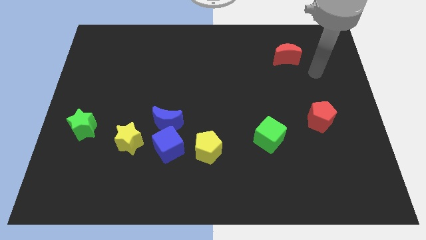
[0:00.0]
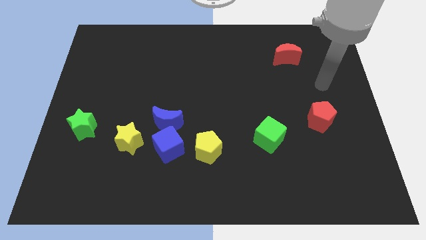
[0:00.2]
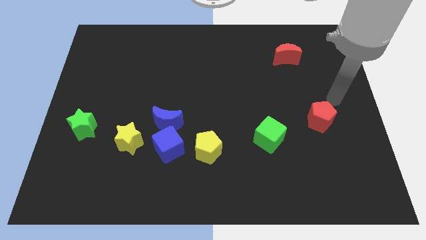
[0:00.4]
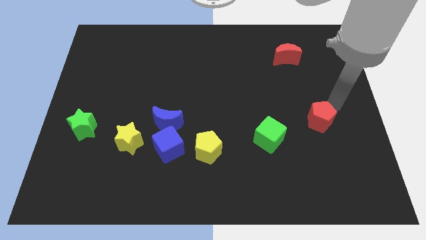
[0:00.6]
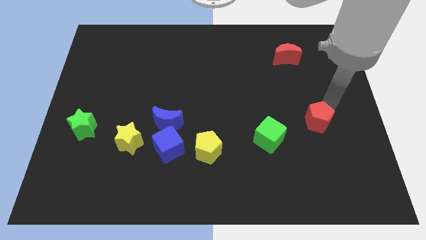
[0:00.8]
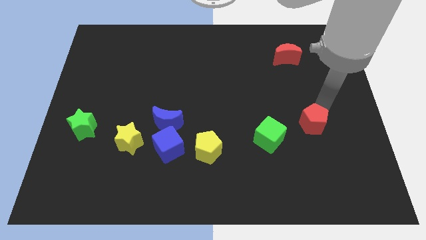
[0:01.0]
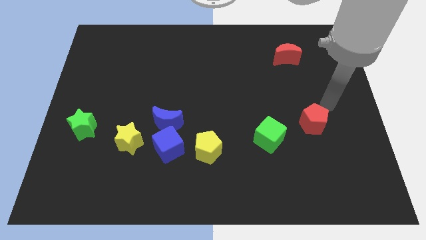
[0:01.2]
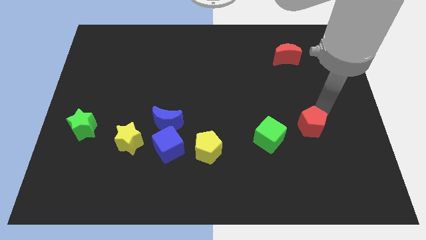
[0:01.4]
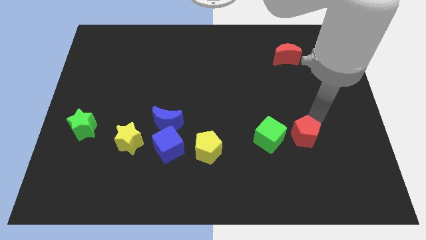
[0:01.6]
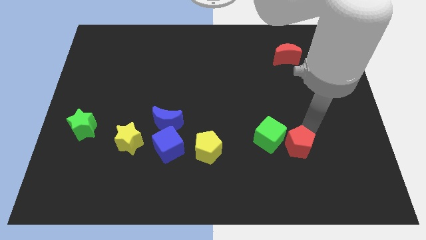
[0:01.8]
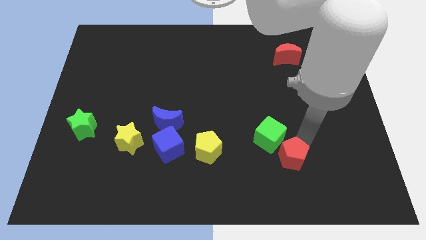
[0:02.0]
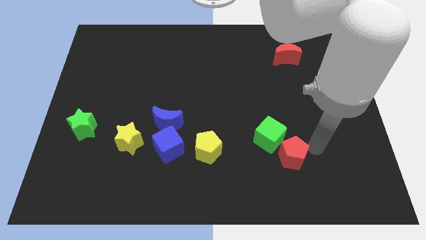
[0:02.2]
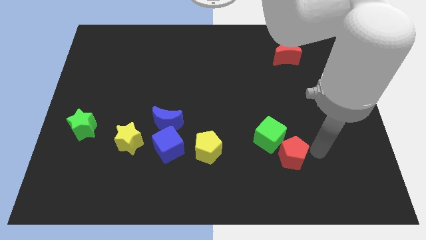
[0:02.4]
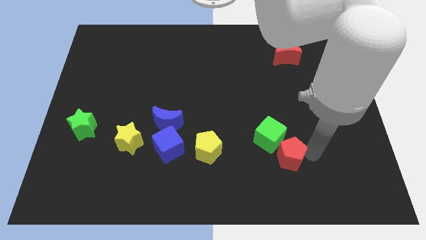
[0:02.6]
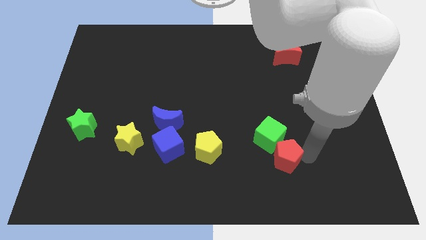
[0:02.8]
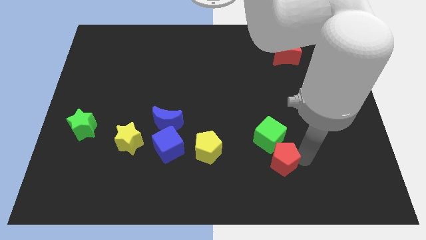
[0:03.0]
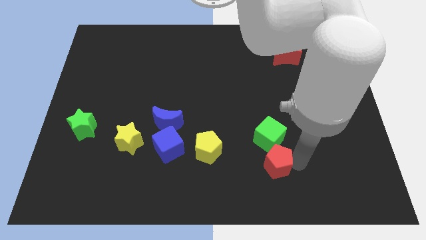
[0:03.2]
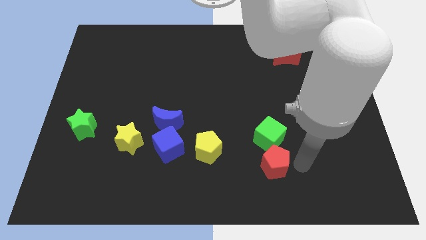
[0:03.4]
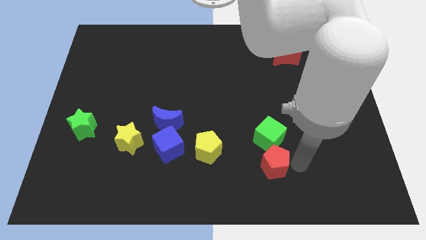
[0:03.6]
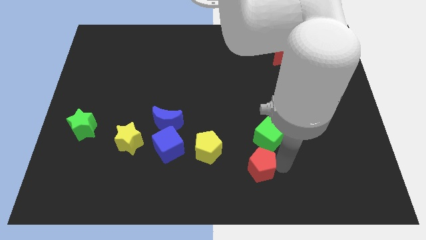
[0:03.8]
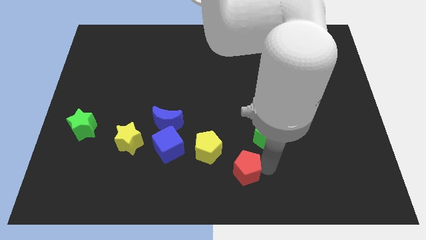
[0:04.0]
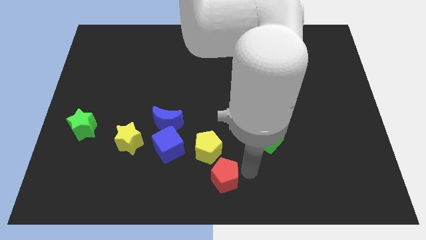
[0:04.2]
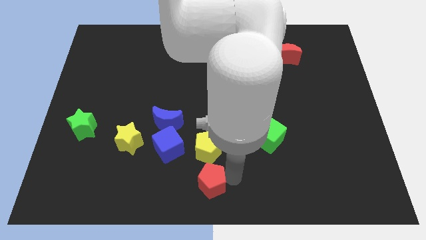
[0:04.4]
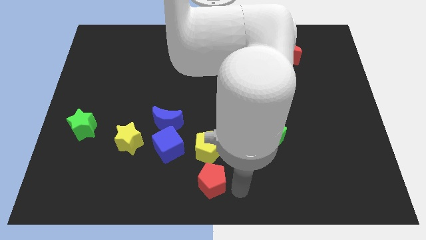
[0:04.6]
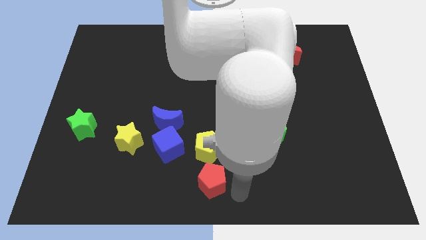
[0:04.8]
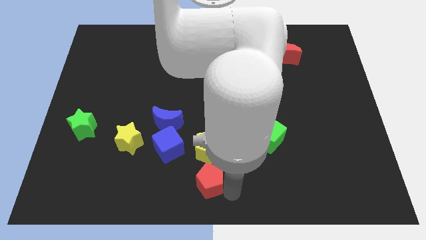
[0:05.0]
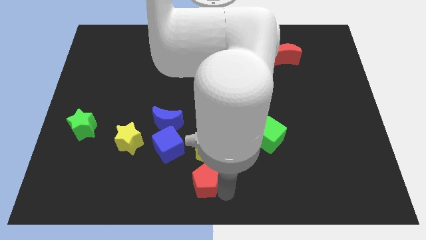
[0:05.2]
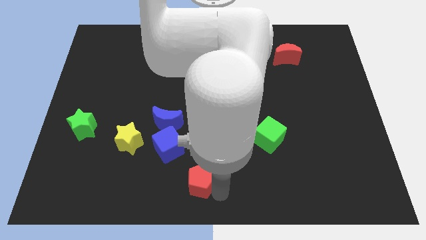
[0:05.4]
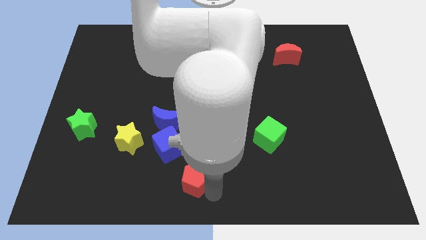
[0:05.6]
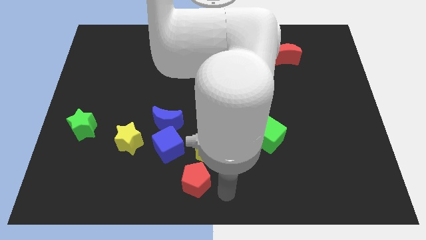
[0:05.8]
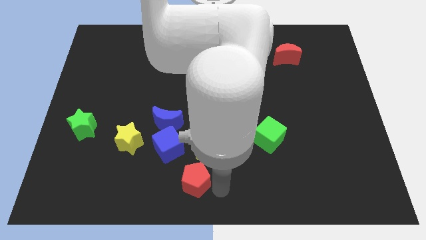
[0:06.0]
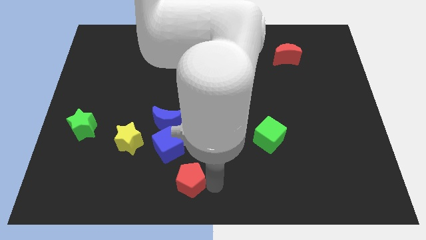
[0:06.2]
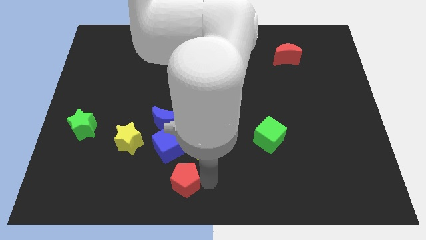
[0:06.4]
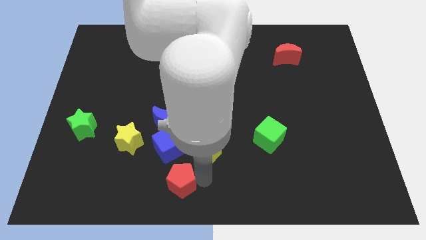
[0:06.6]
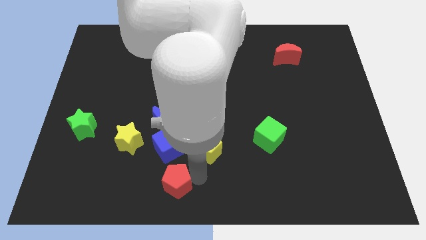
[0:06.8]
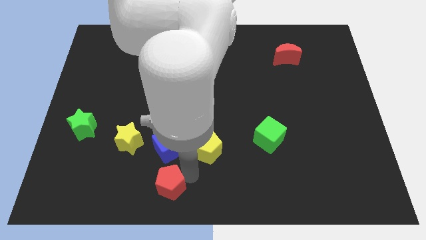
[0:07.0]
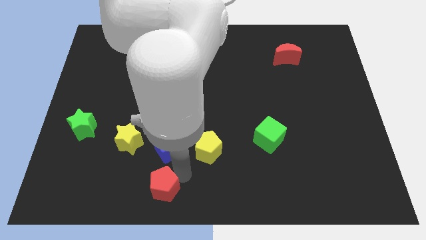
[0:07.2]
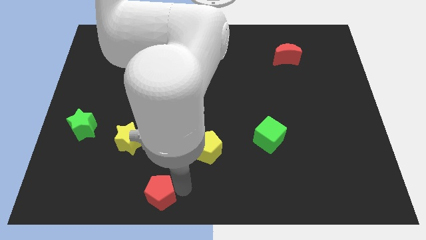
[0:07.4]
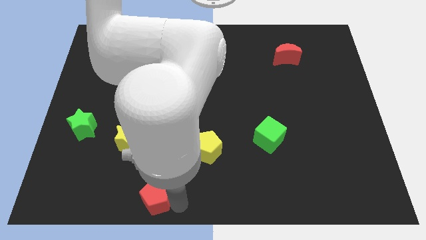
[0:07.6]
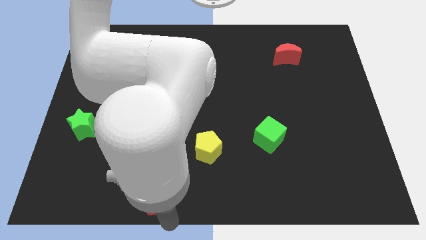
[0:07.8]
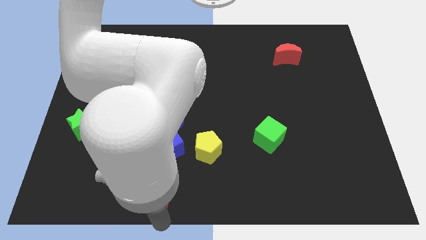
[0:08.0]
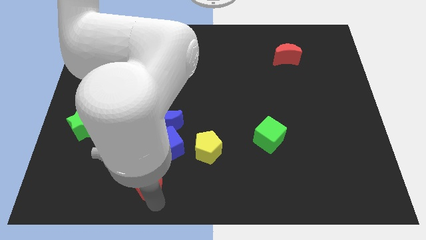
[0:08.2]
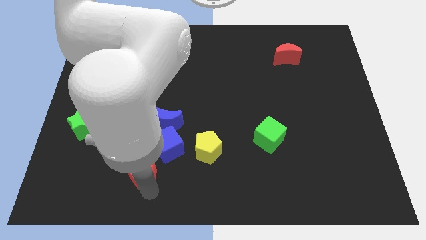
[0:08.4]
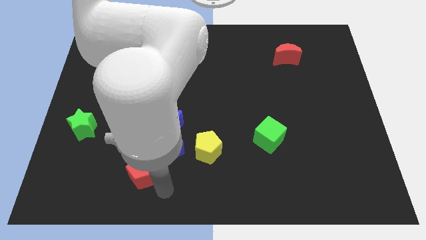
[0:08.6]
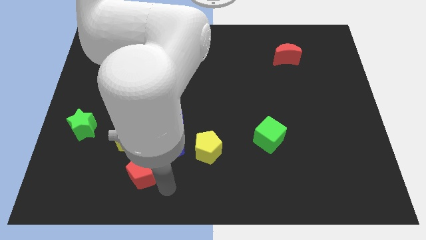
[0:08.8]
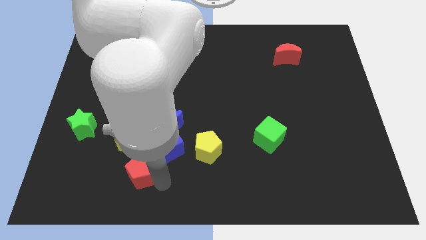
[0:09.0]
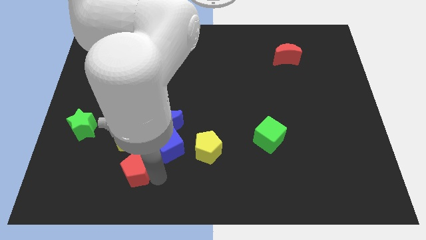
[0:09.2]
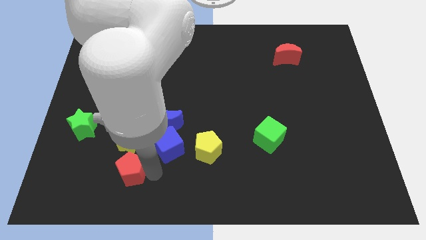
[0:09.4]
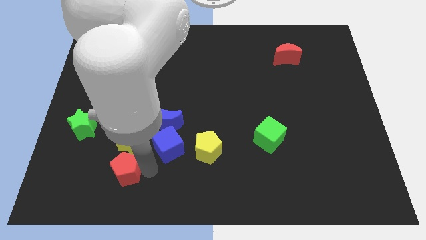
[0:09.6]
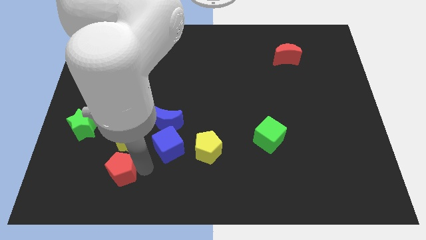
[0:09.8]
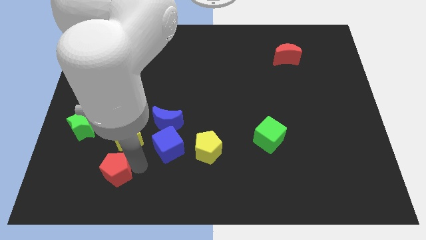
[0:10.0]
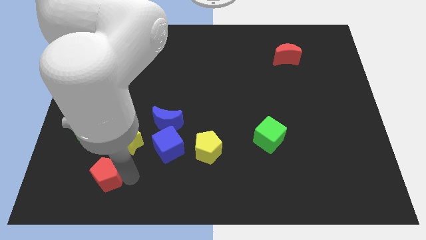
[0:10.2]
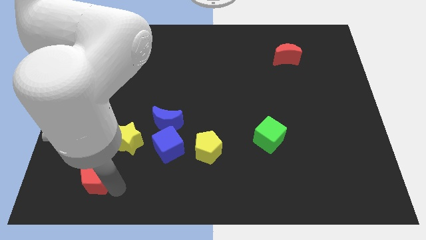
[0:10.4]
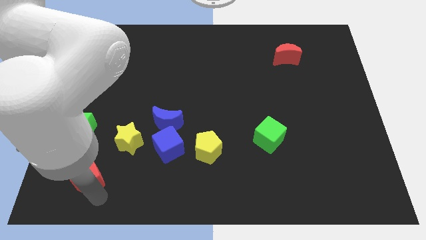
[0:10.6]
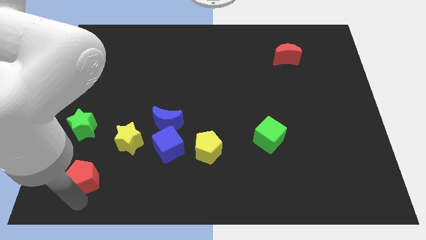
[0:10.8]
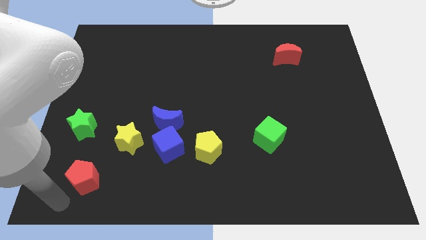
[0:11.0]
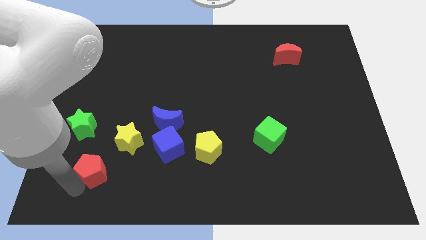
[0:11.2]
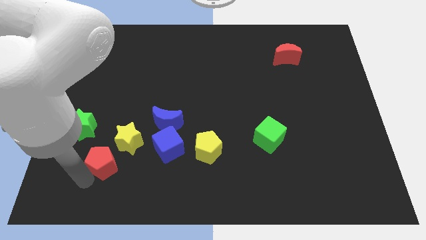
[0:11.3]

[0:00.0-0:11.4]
put the red pentagon just left of the blue cube

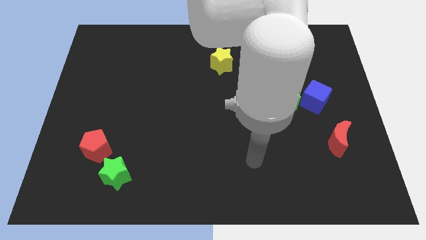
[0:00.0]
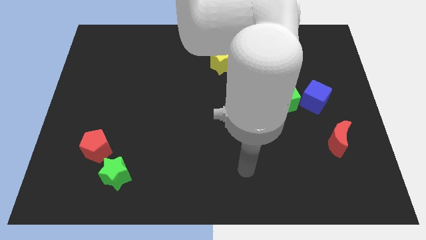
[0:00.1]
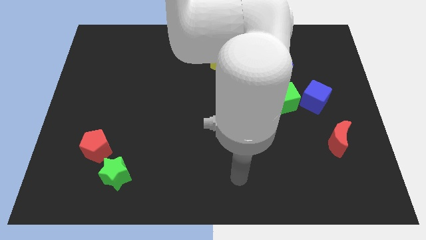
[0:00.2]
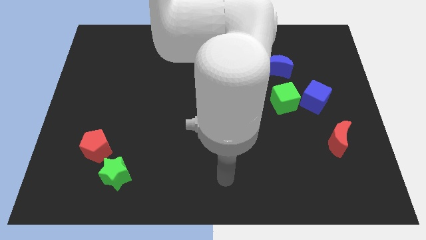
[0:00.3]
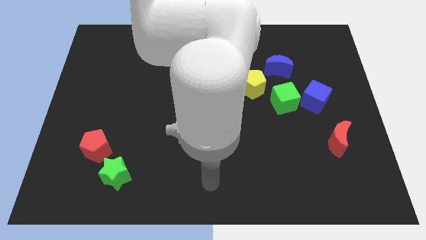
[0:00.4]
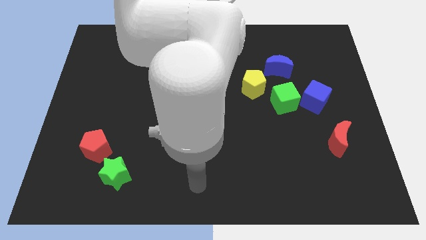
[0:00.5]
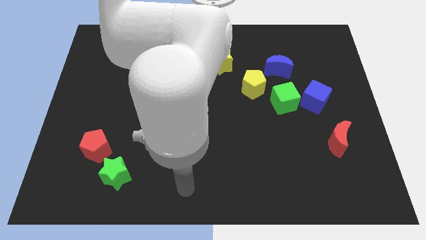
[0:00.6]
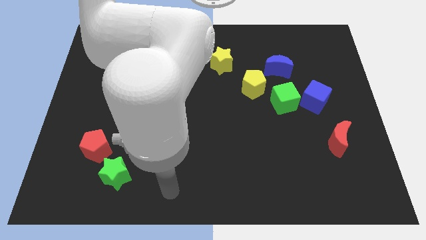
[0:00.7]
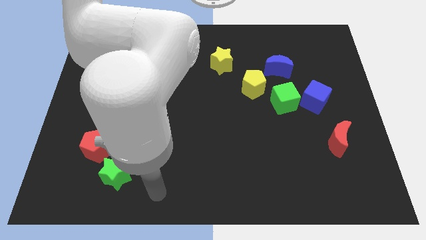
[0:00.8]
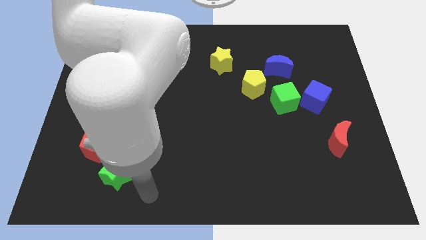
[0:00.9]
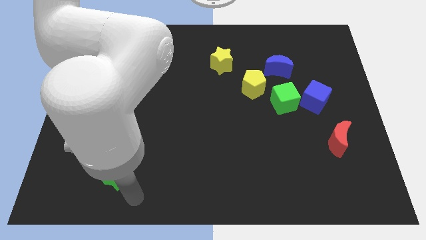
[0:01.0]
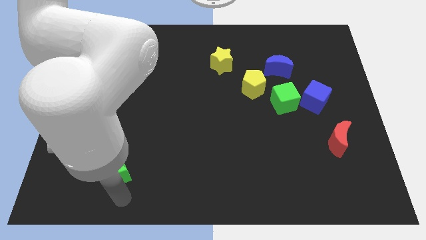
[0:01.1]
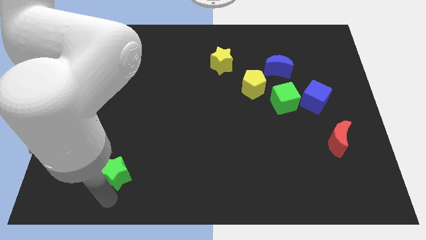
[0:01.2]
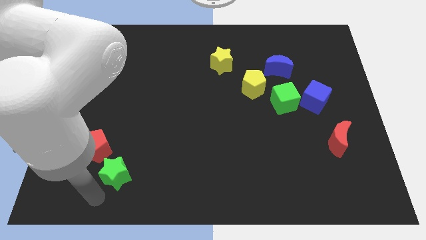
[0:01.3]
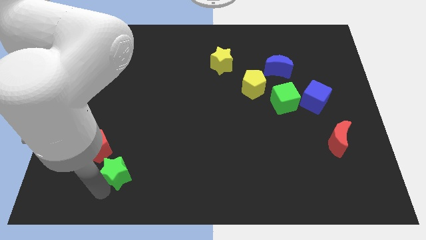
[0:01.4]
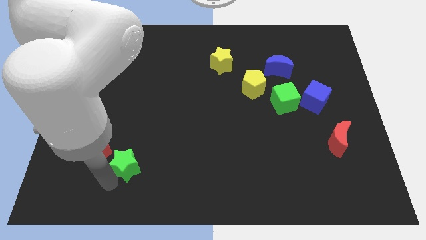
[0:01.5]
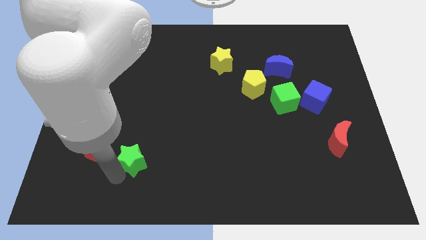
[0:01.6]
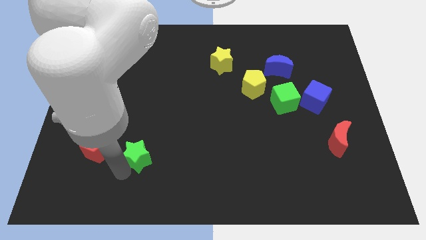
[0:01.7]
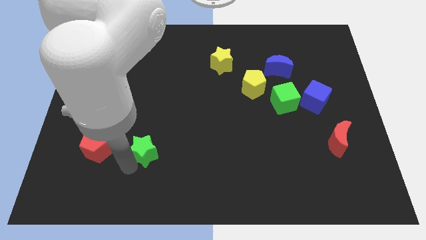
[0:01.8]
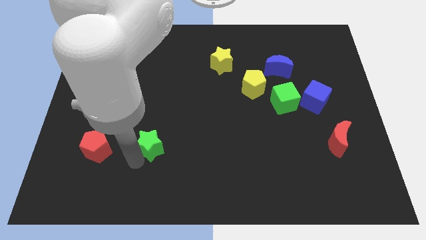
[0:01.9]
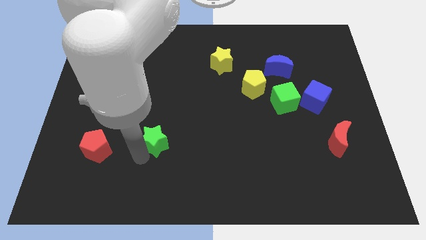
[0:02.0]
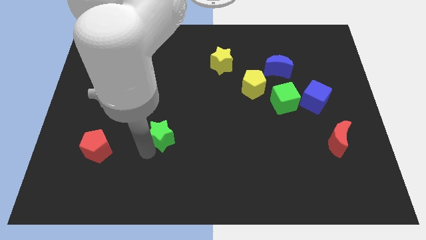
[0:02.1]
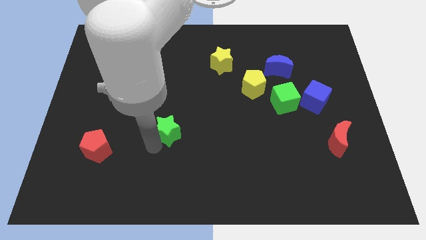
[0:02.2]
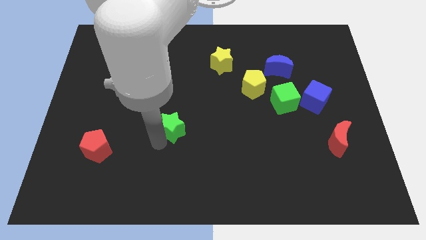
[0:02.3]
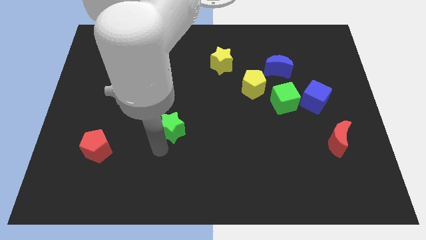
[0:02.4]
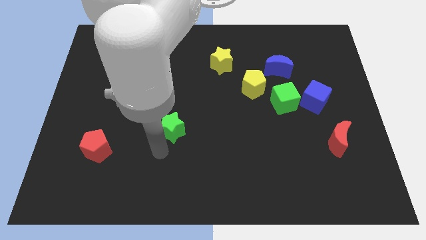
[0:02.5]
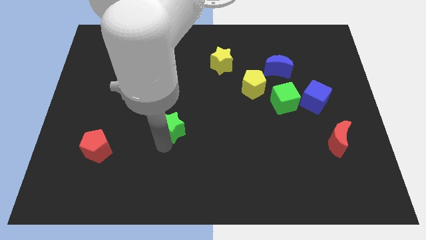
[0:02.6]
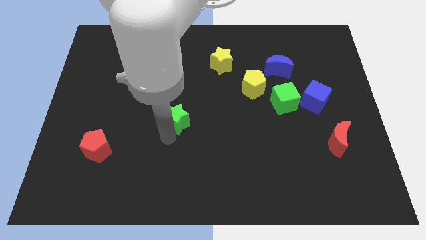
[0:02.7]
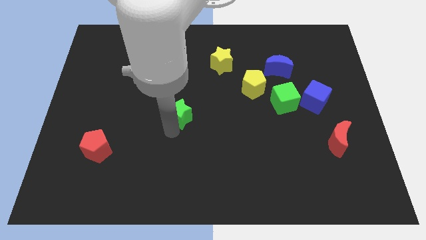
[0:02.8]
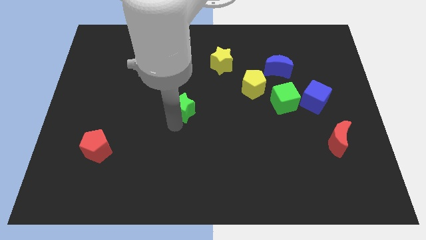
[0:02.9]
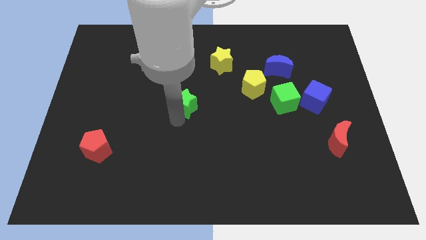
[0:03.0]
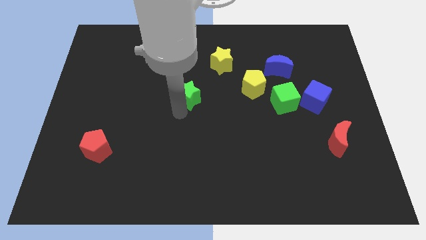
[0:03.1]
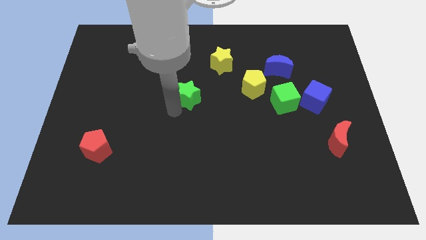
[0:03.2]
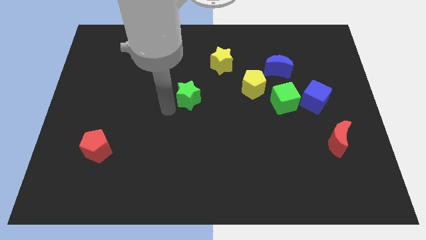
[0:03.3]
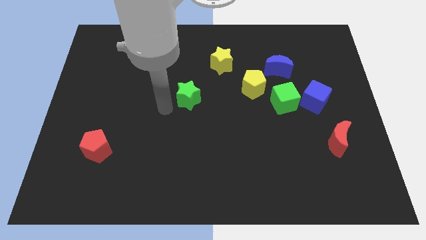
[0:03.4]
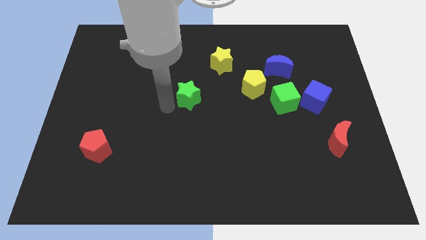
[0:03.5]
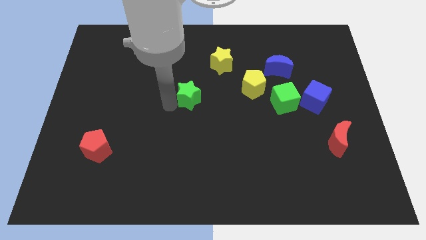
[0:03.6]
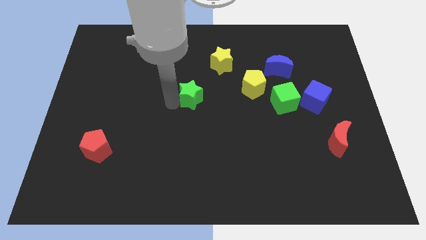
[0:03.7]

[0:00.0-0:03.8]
slide the green star just left of the yellow pentagon
